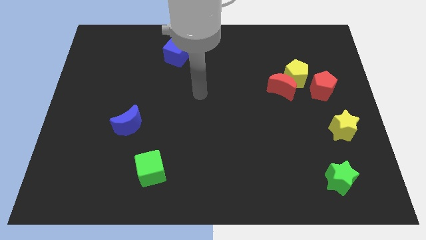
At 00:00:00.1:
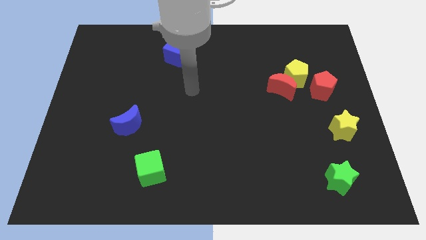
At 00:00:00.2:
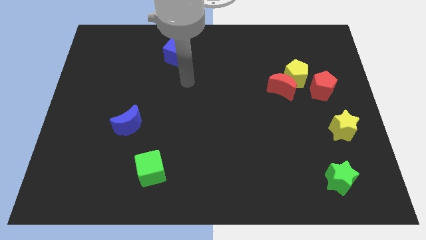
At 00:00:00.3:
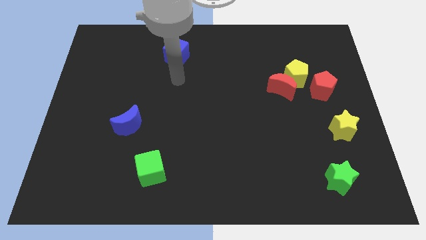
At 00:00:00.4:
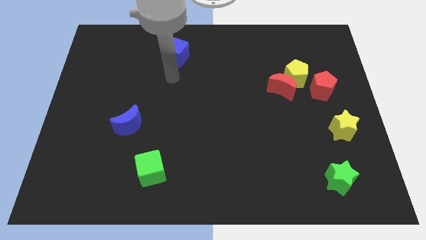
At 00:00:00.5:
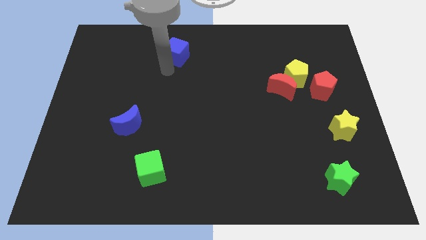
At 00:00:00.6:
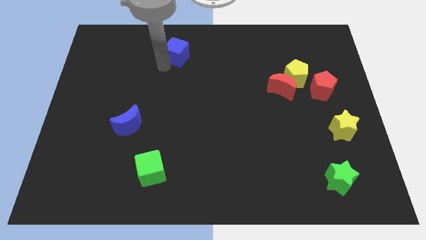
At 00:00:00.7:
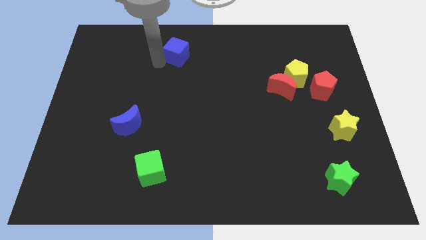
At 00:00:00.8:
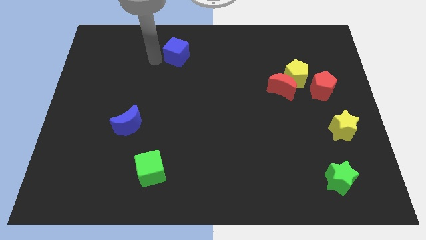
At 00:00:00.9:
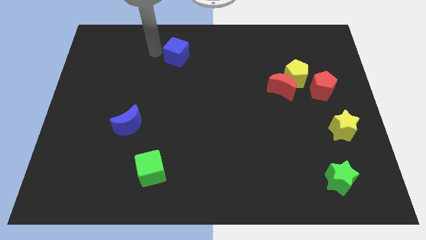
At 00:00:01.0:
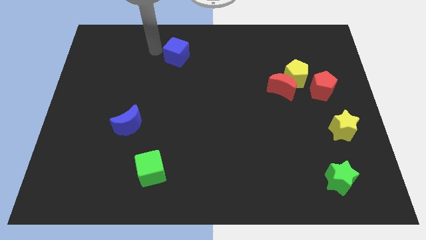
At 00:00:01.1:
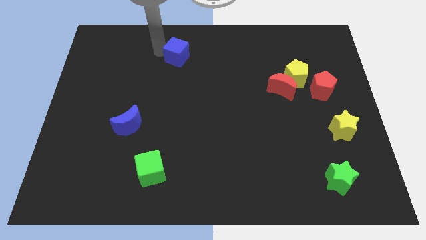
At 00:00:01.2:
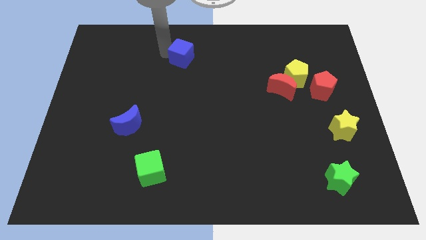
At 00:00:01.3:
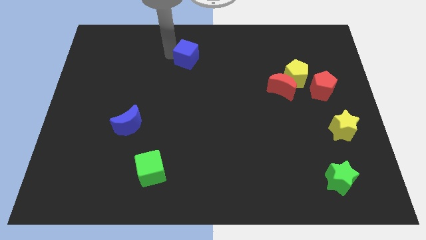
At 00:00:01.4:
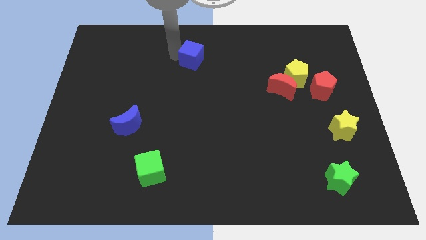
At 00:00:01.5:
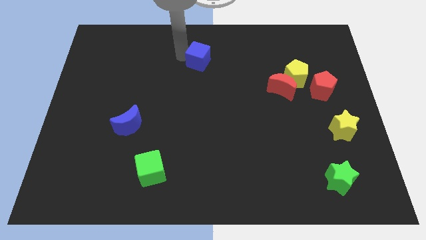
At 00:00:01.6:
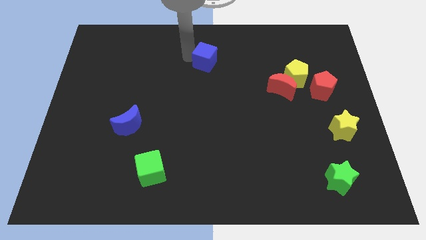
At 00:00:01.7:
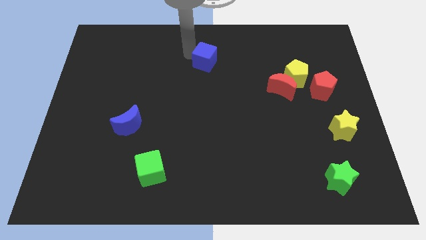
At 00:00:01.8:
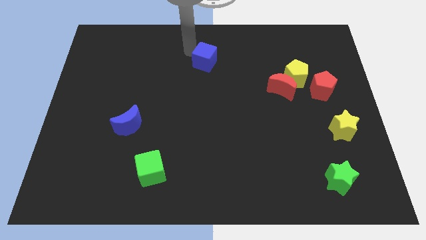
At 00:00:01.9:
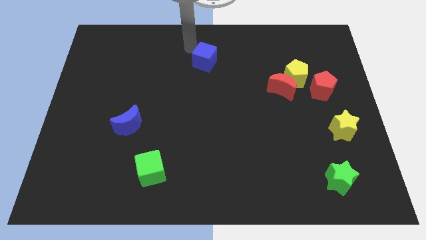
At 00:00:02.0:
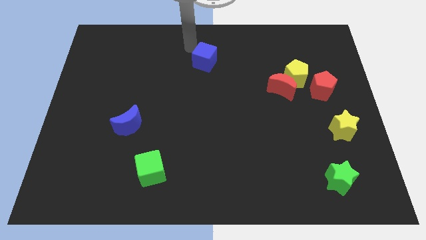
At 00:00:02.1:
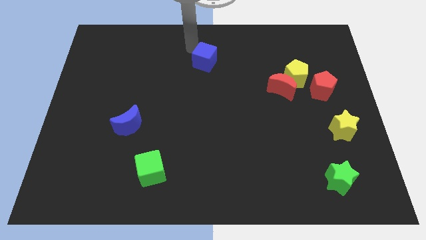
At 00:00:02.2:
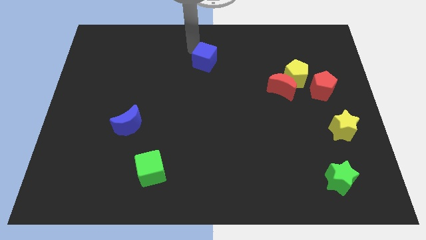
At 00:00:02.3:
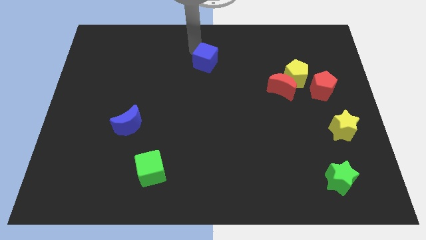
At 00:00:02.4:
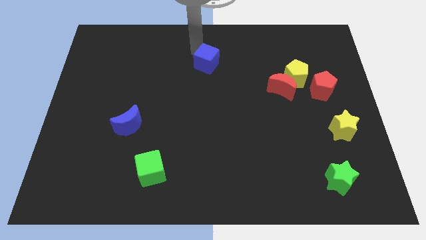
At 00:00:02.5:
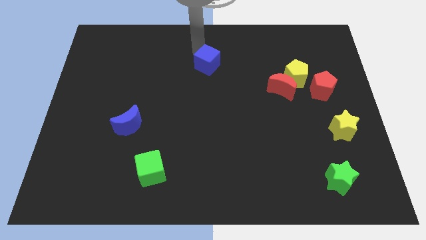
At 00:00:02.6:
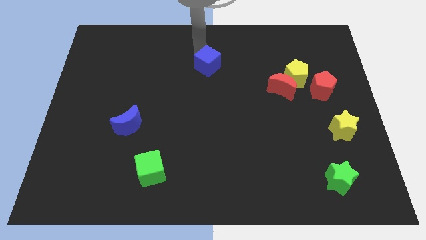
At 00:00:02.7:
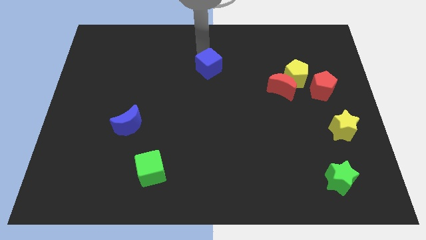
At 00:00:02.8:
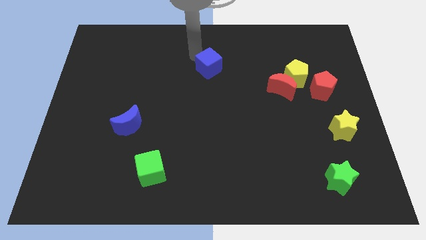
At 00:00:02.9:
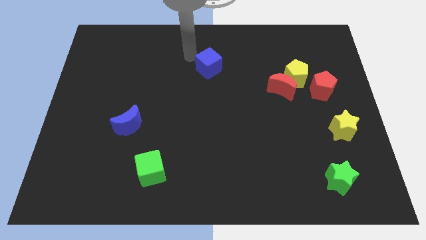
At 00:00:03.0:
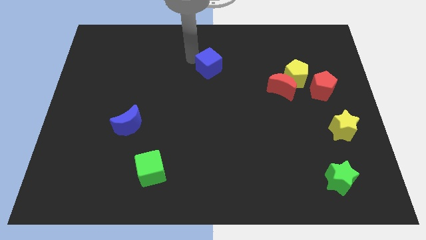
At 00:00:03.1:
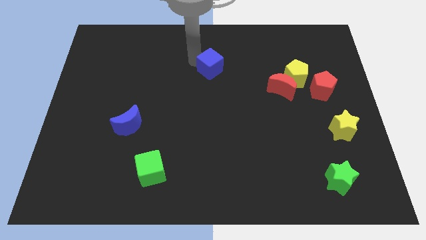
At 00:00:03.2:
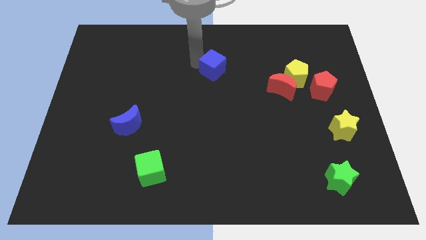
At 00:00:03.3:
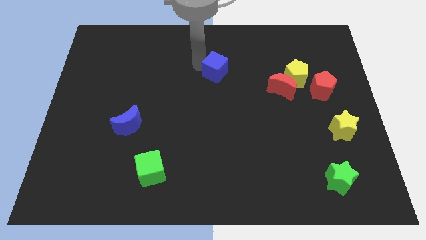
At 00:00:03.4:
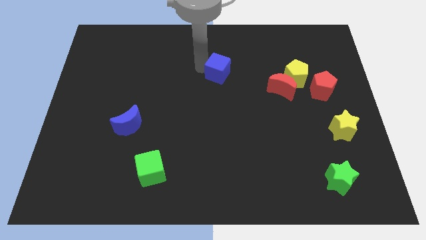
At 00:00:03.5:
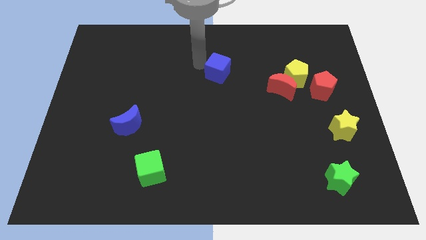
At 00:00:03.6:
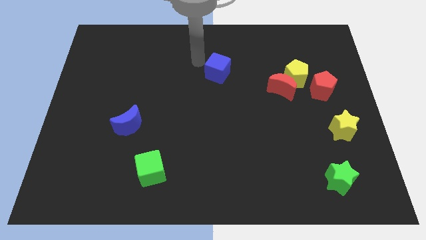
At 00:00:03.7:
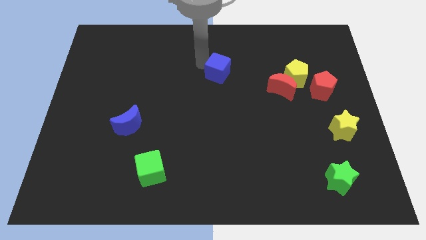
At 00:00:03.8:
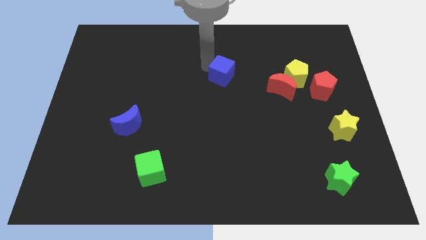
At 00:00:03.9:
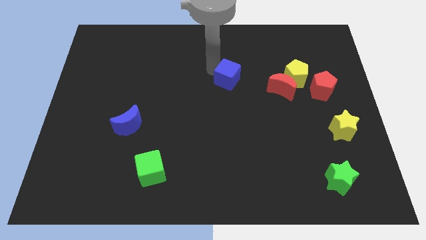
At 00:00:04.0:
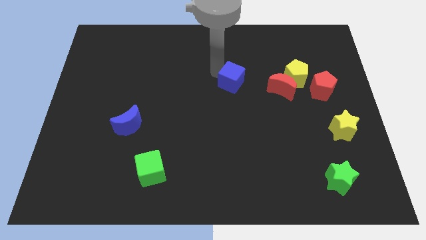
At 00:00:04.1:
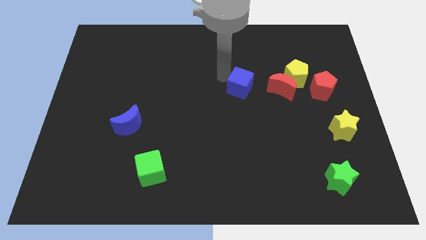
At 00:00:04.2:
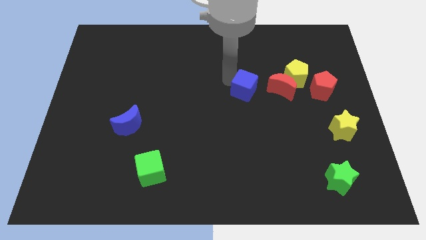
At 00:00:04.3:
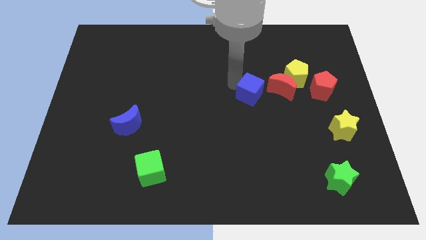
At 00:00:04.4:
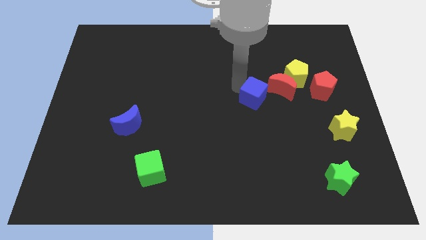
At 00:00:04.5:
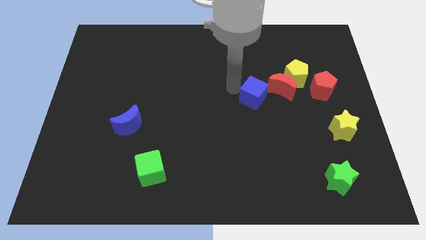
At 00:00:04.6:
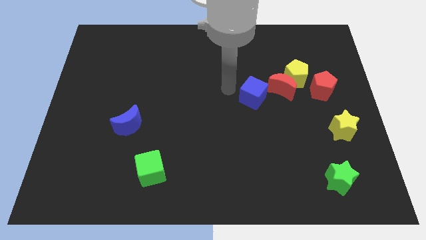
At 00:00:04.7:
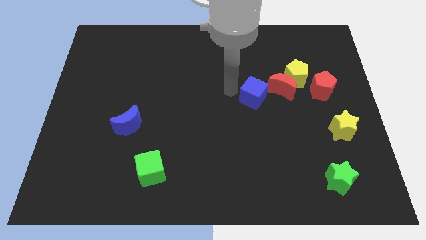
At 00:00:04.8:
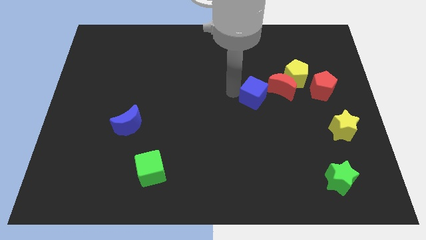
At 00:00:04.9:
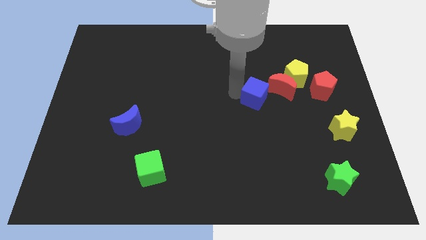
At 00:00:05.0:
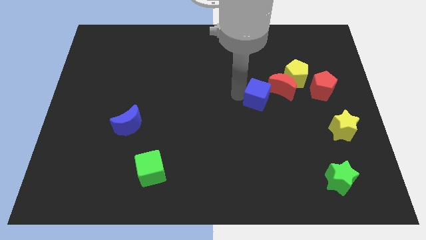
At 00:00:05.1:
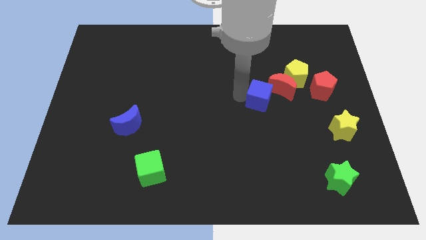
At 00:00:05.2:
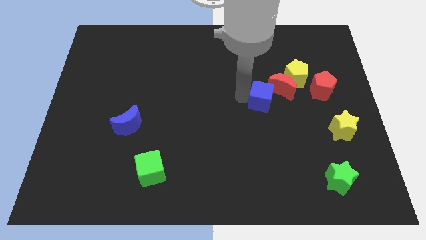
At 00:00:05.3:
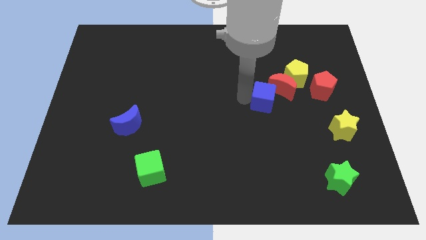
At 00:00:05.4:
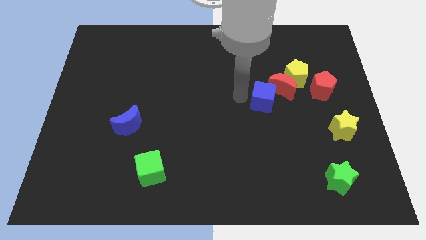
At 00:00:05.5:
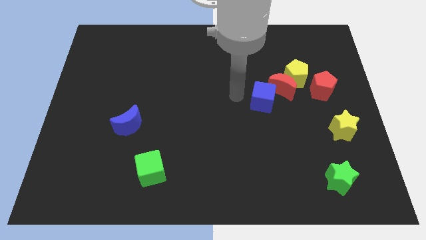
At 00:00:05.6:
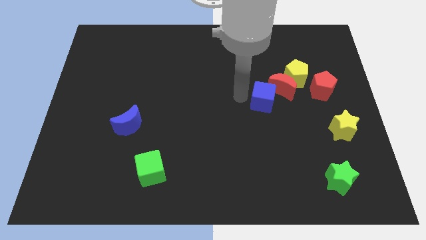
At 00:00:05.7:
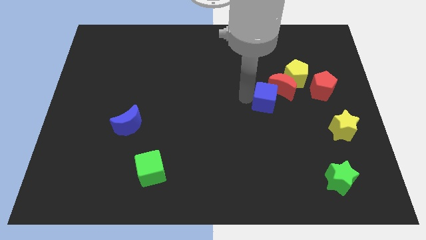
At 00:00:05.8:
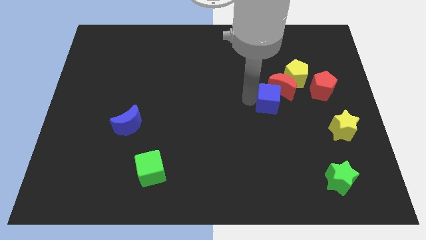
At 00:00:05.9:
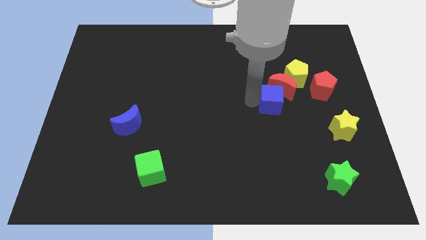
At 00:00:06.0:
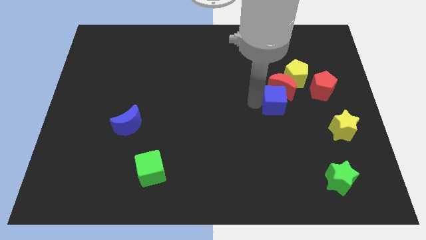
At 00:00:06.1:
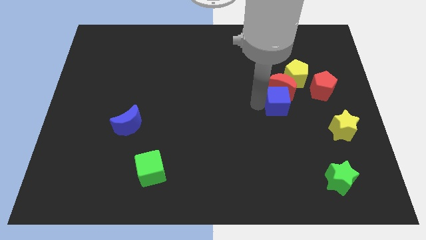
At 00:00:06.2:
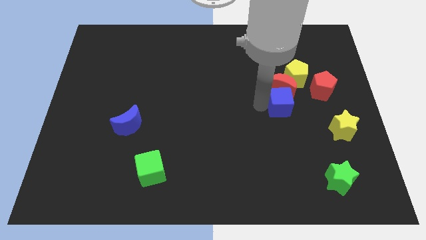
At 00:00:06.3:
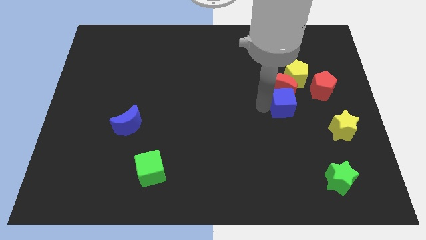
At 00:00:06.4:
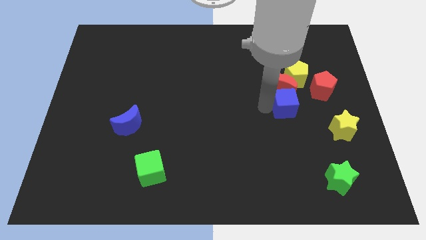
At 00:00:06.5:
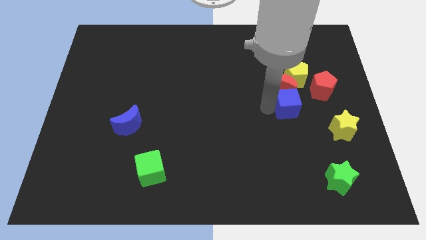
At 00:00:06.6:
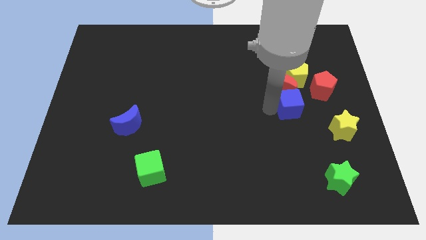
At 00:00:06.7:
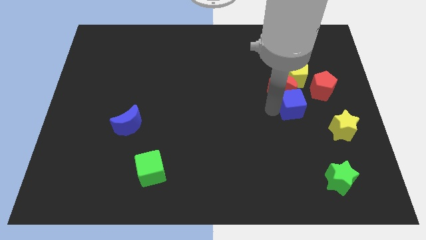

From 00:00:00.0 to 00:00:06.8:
move the blue cube diagonally up and to the left of the yellow star

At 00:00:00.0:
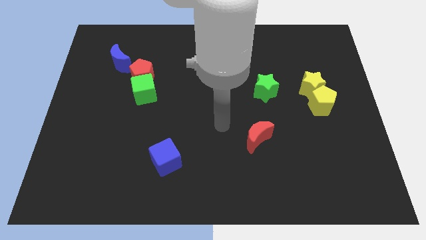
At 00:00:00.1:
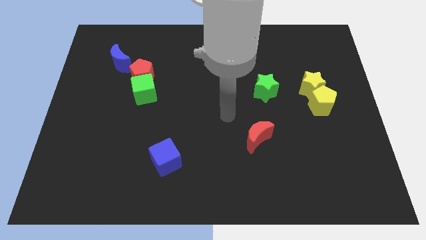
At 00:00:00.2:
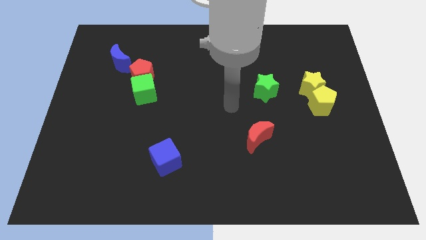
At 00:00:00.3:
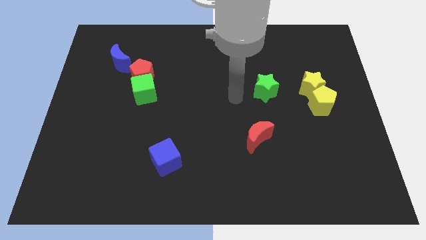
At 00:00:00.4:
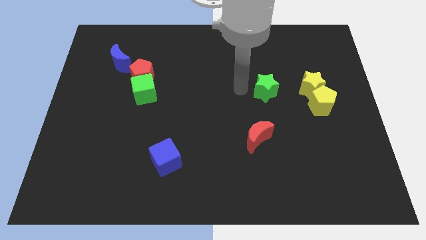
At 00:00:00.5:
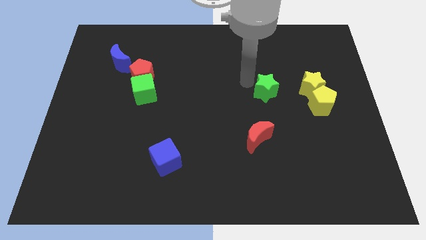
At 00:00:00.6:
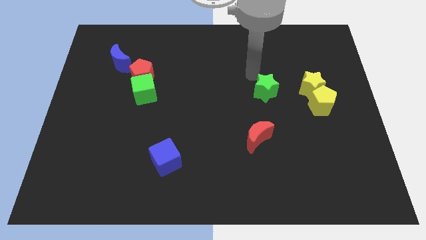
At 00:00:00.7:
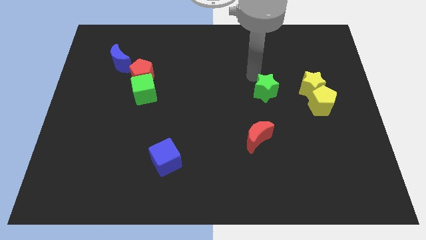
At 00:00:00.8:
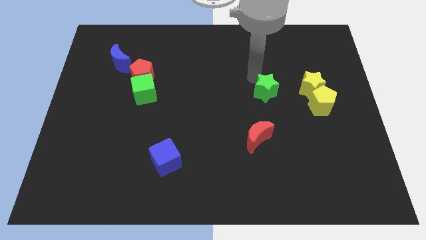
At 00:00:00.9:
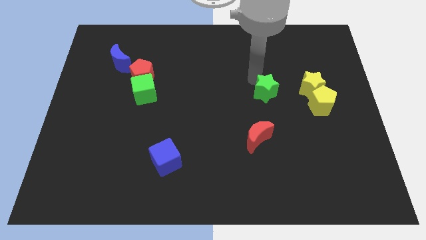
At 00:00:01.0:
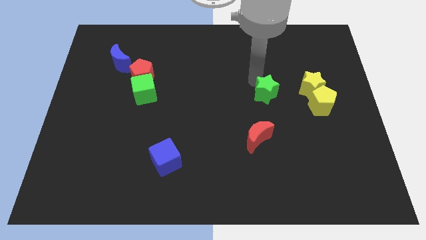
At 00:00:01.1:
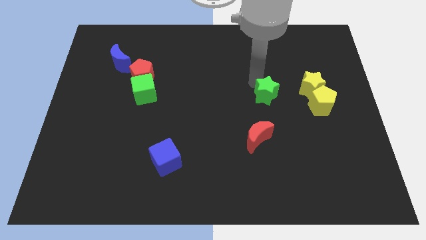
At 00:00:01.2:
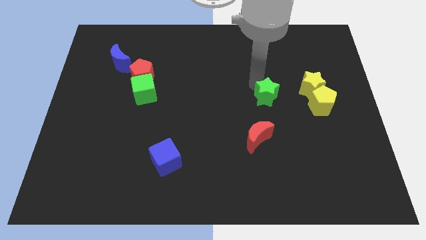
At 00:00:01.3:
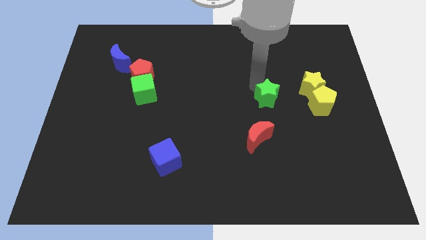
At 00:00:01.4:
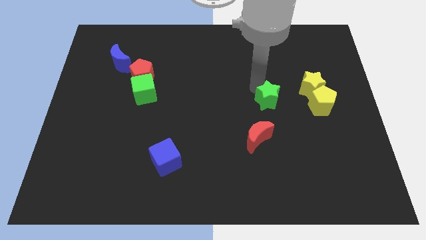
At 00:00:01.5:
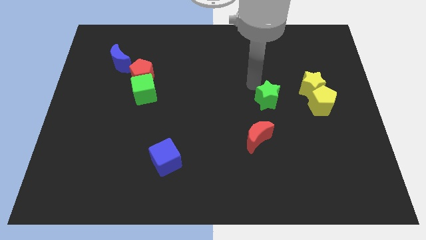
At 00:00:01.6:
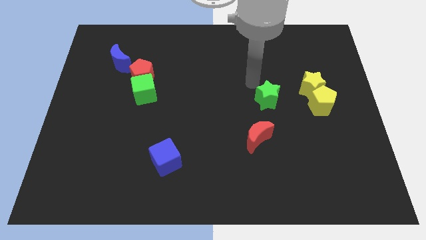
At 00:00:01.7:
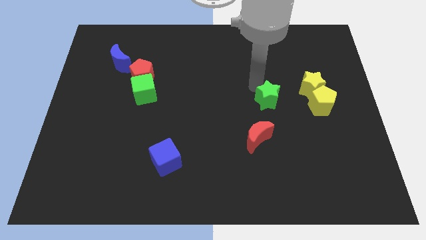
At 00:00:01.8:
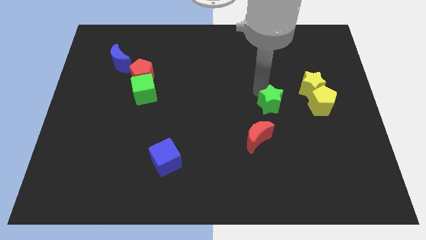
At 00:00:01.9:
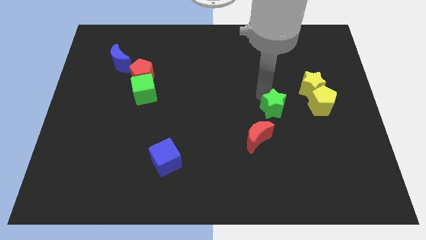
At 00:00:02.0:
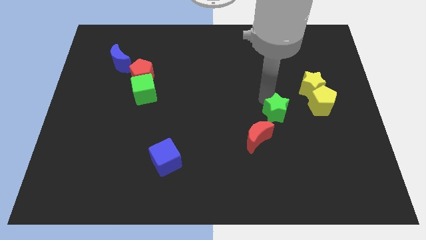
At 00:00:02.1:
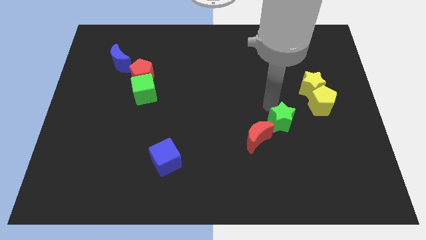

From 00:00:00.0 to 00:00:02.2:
slide the green star to the right side of the red moon
